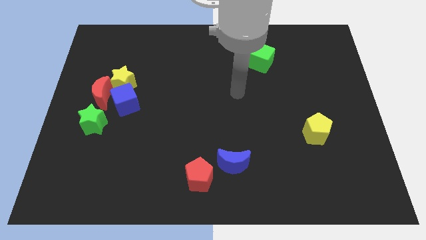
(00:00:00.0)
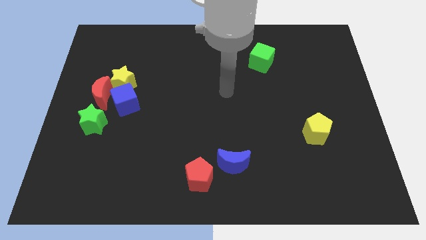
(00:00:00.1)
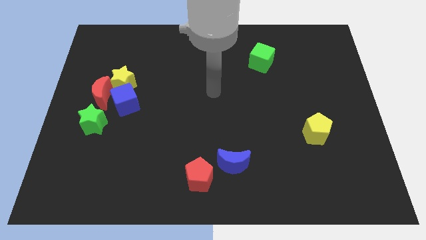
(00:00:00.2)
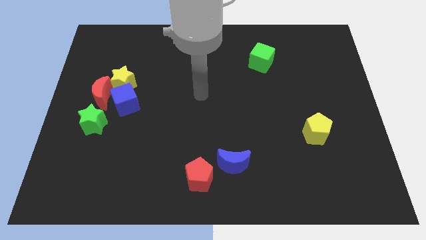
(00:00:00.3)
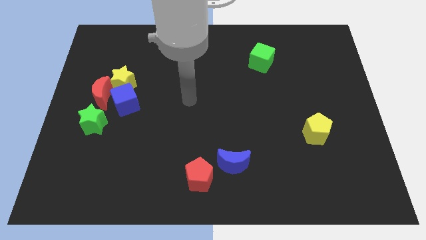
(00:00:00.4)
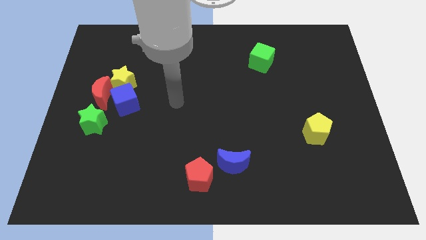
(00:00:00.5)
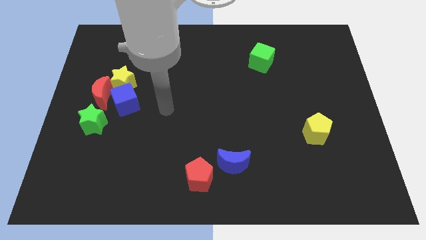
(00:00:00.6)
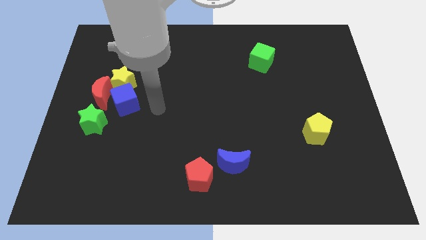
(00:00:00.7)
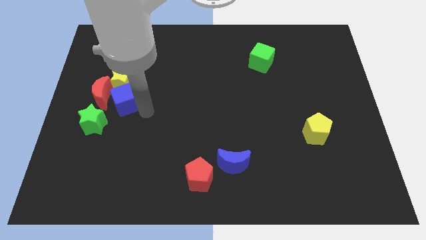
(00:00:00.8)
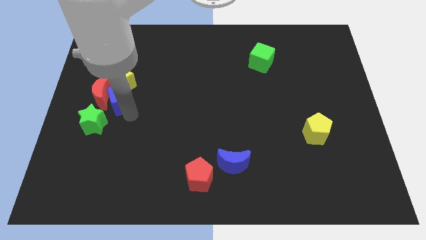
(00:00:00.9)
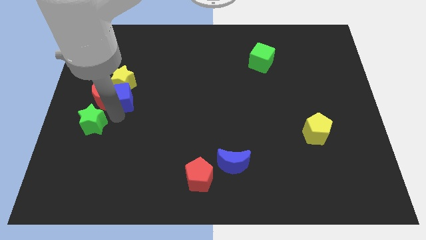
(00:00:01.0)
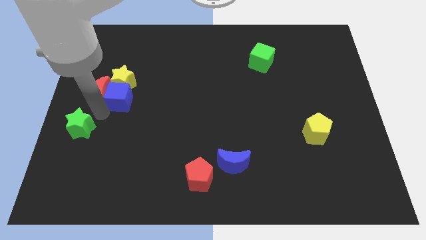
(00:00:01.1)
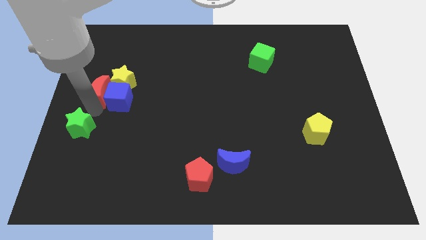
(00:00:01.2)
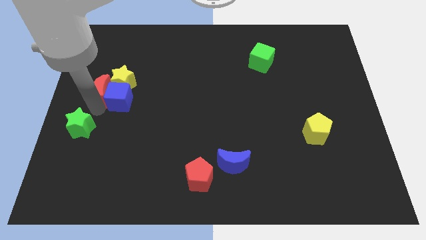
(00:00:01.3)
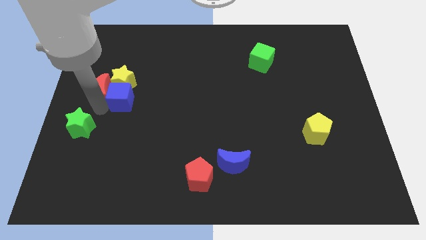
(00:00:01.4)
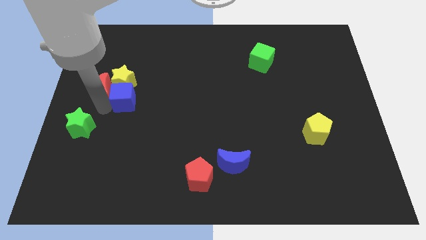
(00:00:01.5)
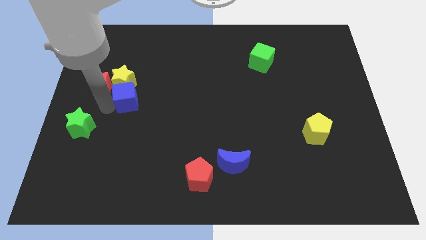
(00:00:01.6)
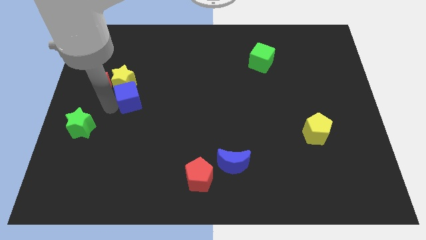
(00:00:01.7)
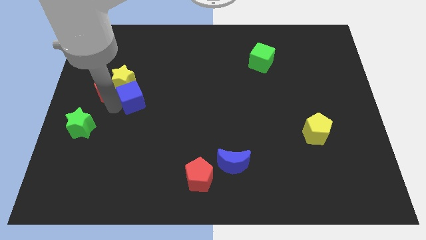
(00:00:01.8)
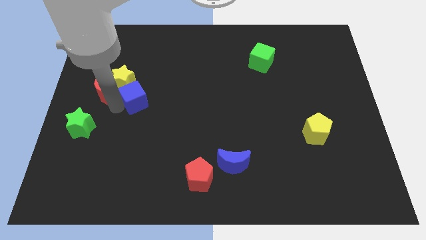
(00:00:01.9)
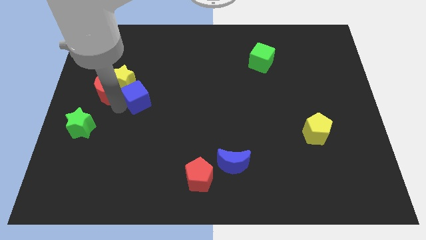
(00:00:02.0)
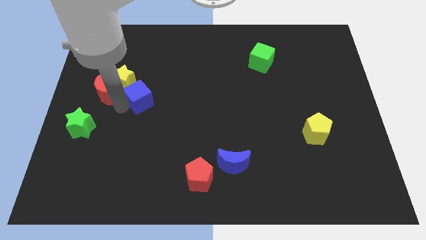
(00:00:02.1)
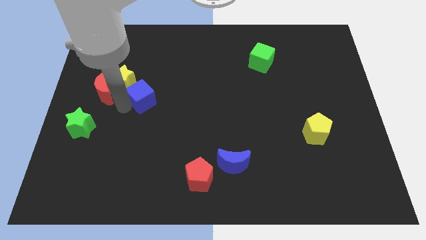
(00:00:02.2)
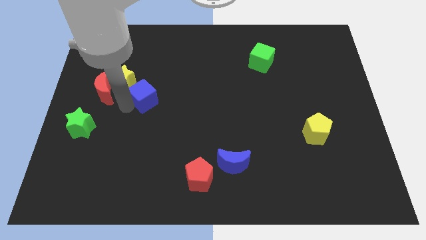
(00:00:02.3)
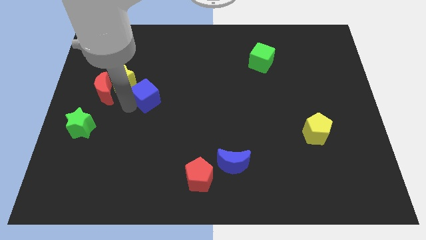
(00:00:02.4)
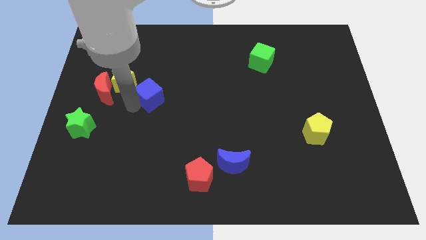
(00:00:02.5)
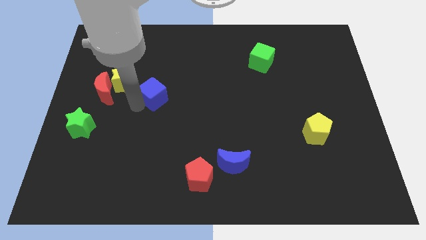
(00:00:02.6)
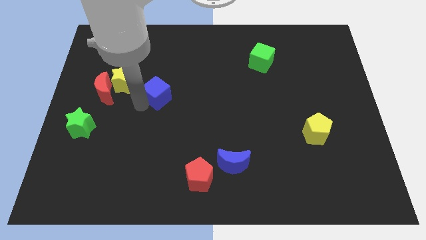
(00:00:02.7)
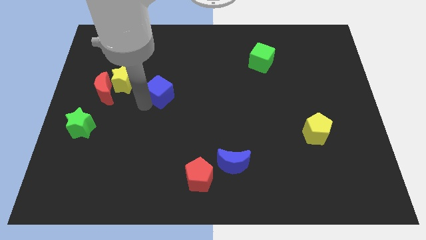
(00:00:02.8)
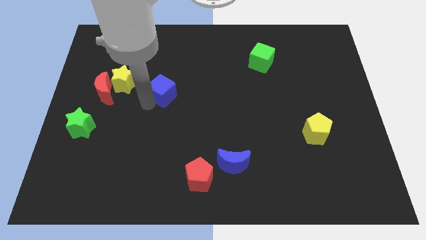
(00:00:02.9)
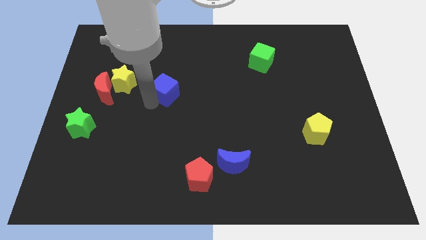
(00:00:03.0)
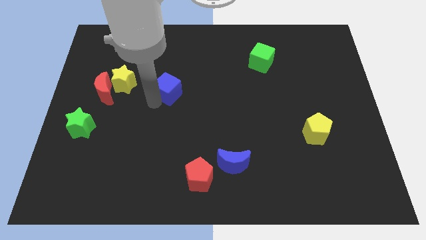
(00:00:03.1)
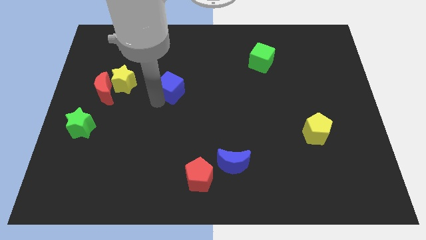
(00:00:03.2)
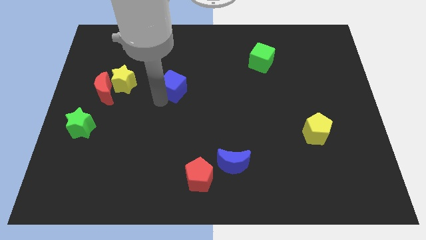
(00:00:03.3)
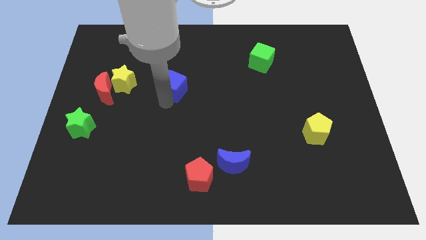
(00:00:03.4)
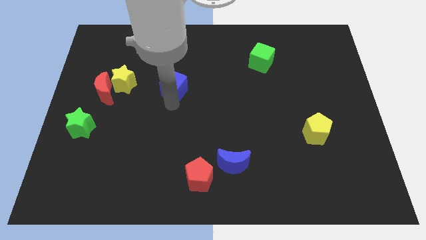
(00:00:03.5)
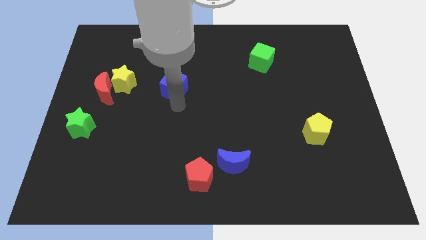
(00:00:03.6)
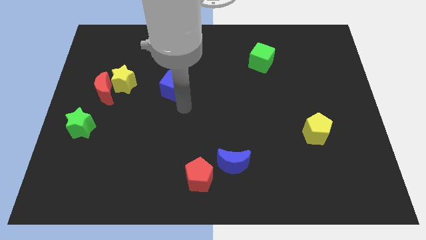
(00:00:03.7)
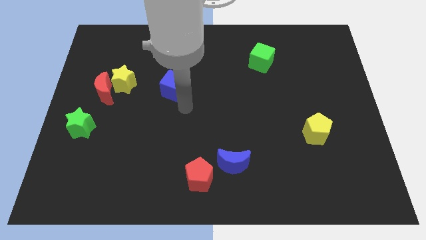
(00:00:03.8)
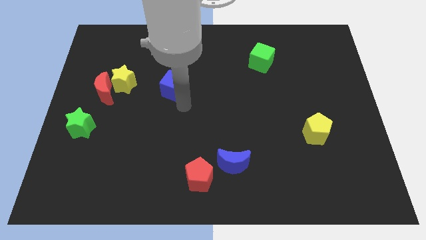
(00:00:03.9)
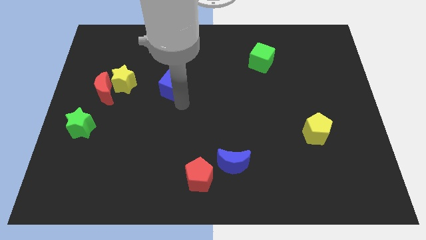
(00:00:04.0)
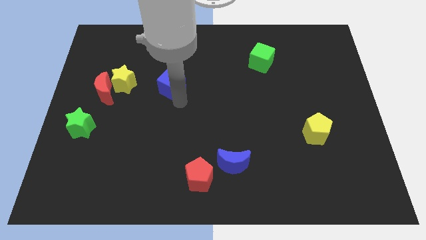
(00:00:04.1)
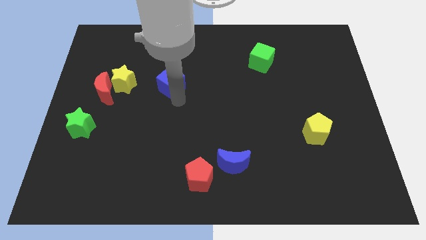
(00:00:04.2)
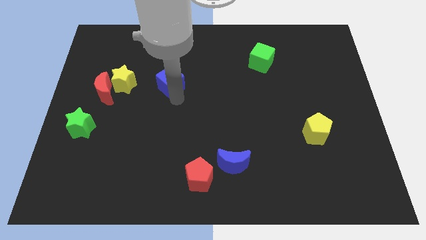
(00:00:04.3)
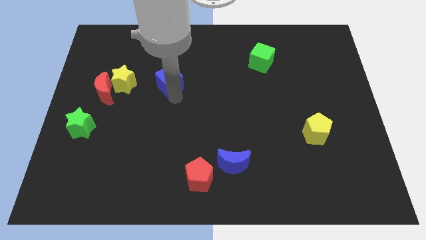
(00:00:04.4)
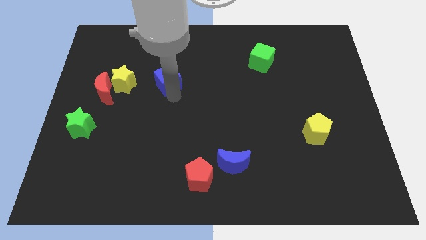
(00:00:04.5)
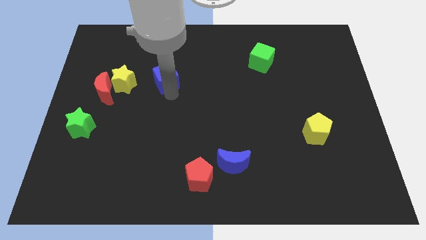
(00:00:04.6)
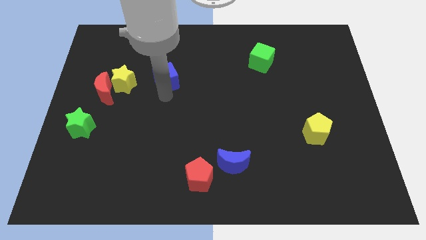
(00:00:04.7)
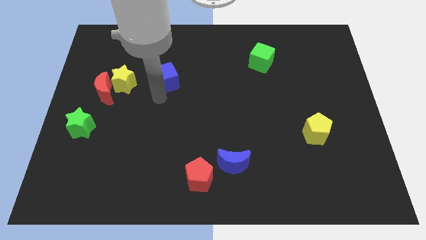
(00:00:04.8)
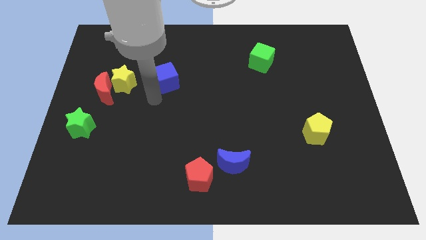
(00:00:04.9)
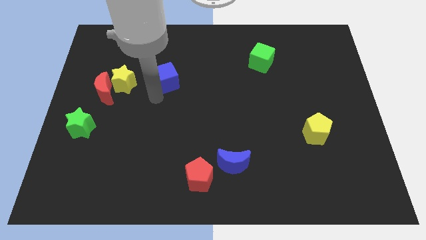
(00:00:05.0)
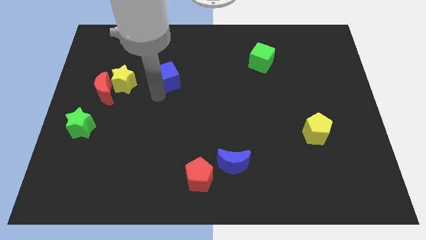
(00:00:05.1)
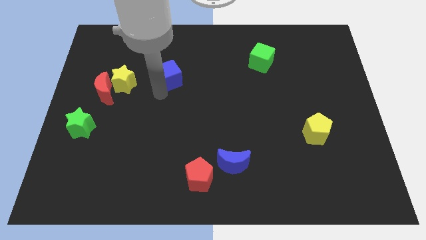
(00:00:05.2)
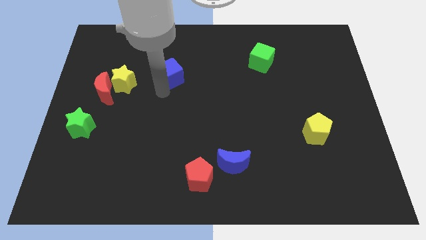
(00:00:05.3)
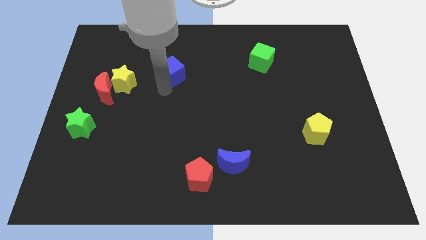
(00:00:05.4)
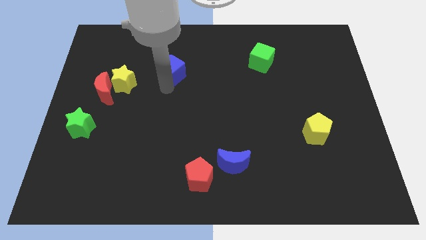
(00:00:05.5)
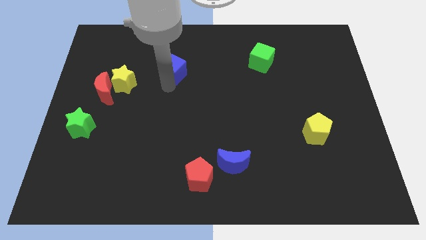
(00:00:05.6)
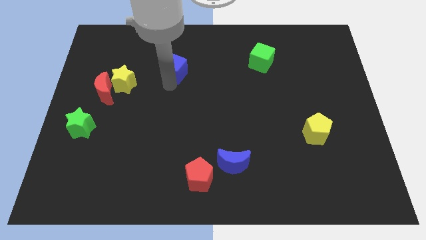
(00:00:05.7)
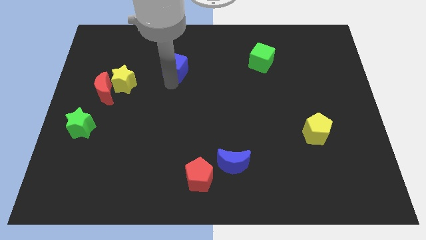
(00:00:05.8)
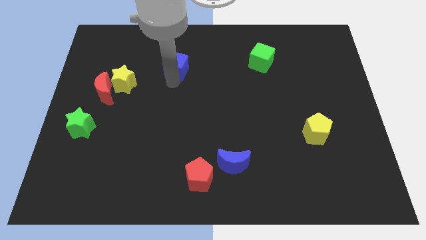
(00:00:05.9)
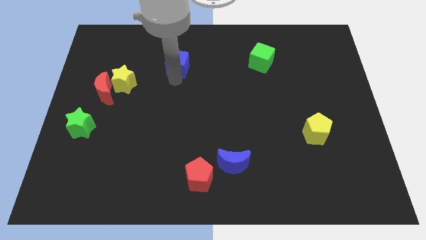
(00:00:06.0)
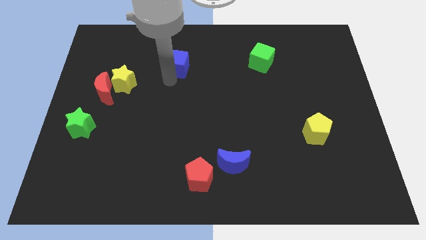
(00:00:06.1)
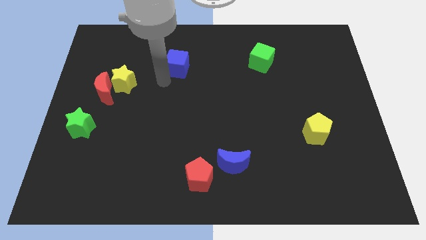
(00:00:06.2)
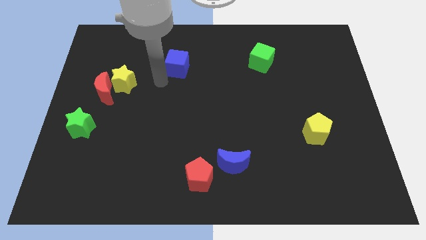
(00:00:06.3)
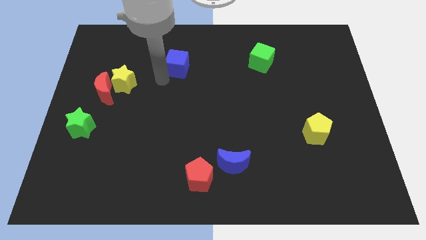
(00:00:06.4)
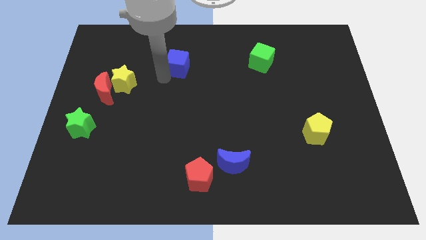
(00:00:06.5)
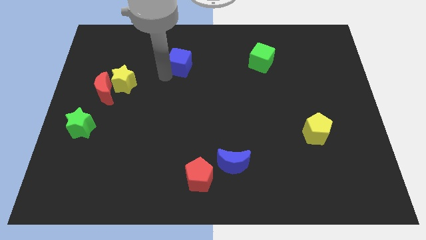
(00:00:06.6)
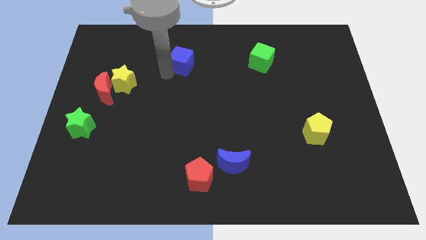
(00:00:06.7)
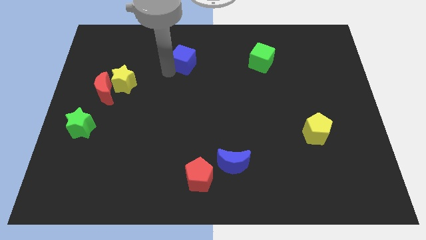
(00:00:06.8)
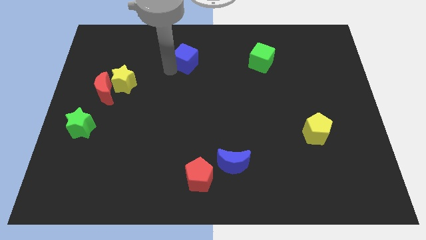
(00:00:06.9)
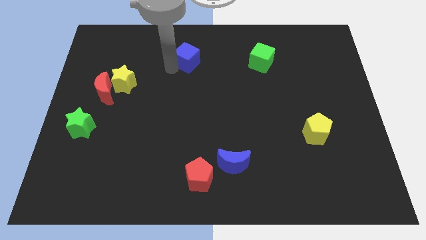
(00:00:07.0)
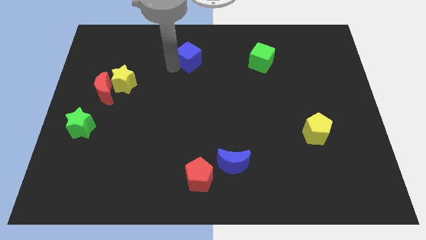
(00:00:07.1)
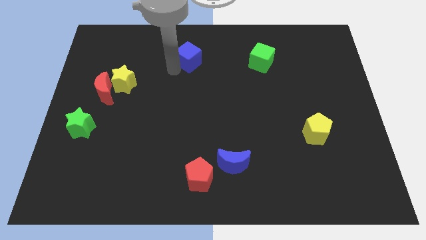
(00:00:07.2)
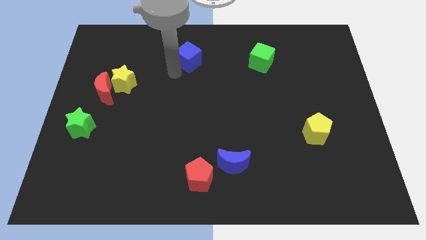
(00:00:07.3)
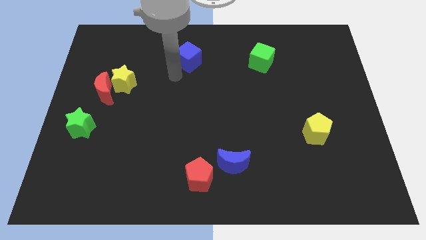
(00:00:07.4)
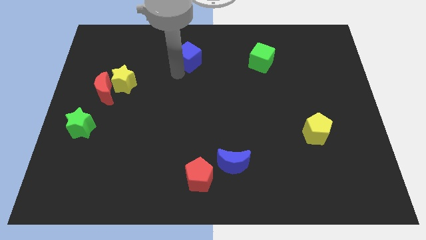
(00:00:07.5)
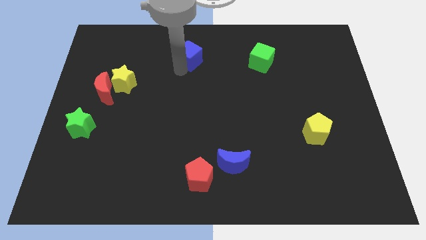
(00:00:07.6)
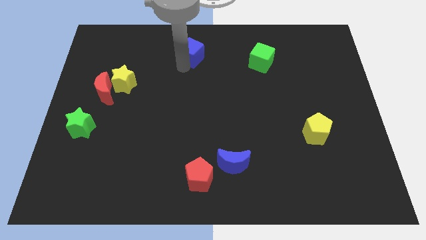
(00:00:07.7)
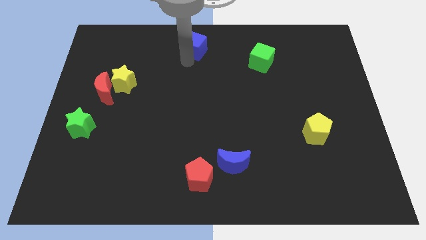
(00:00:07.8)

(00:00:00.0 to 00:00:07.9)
push the blue cube to the top side
